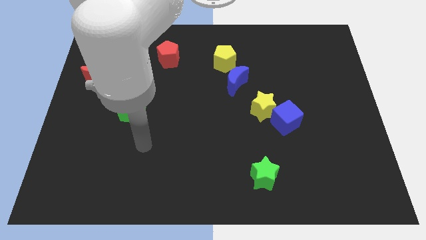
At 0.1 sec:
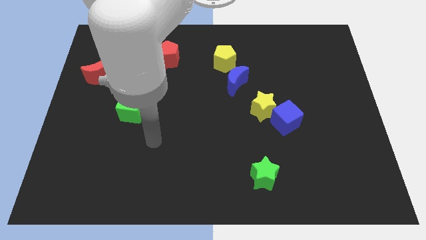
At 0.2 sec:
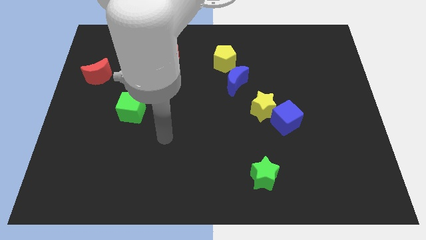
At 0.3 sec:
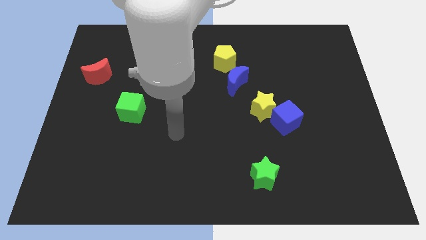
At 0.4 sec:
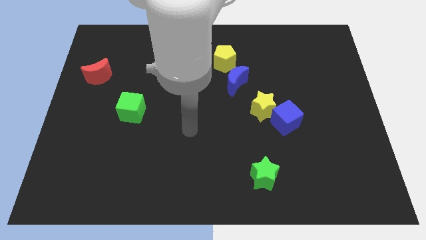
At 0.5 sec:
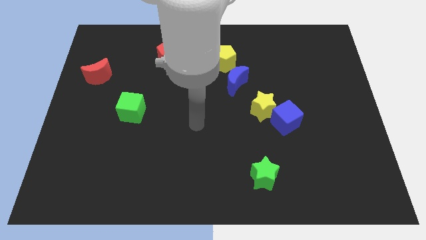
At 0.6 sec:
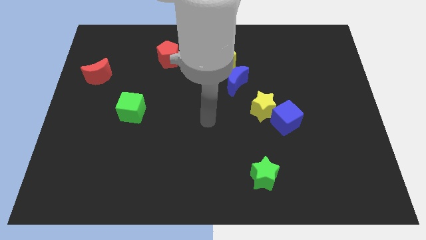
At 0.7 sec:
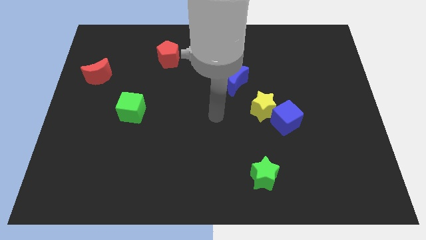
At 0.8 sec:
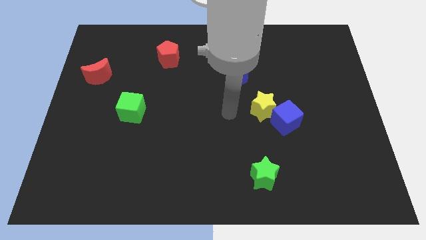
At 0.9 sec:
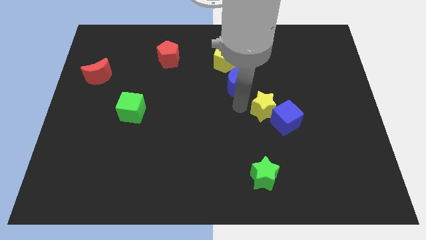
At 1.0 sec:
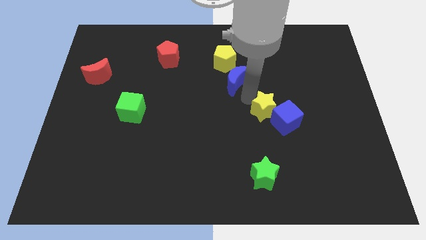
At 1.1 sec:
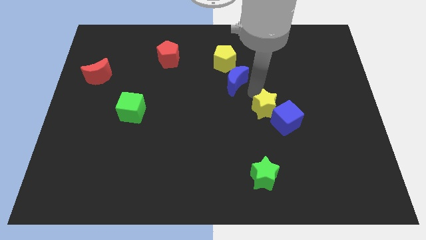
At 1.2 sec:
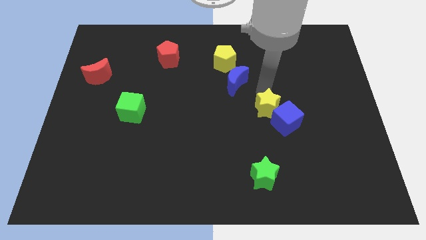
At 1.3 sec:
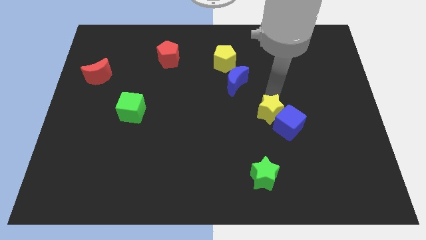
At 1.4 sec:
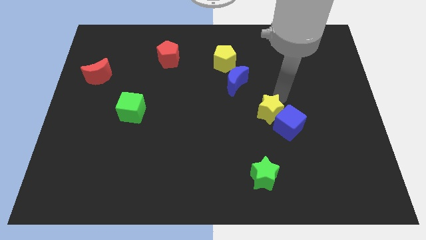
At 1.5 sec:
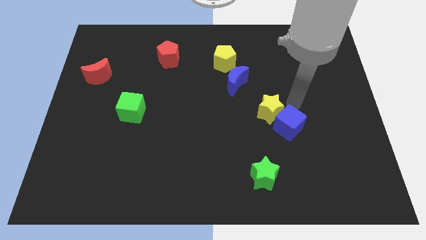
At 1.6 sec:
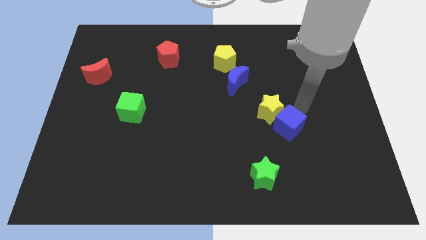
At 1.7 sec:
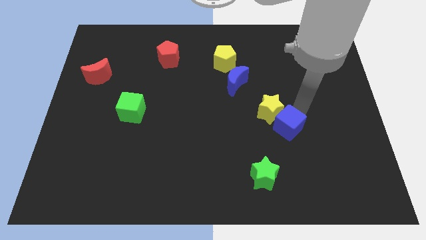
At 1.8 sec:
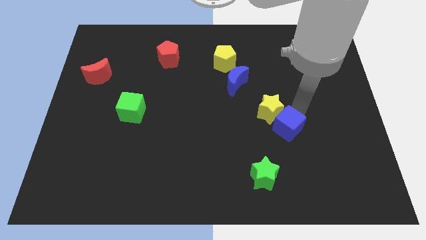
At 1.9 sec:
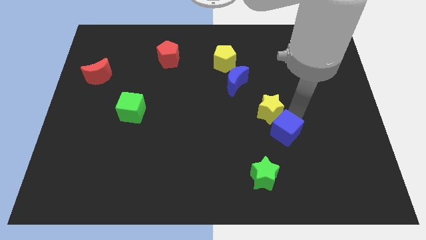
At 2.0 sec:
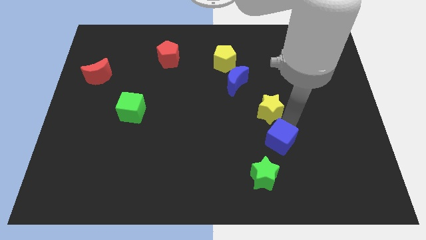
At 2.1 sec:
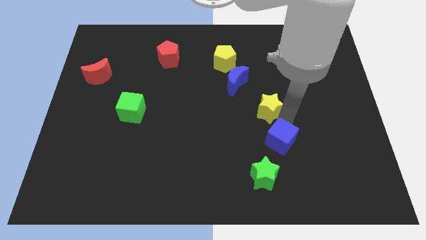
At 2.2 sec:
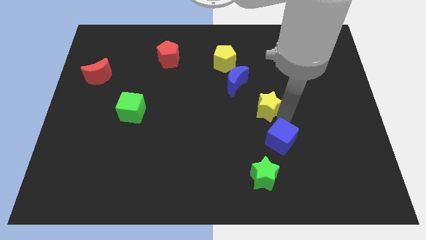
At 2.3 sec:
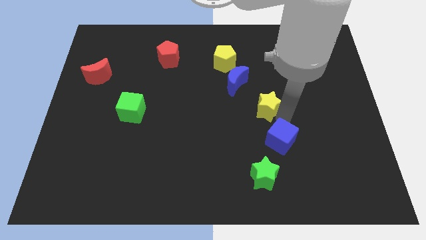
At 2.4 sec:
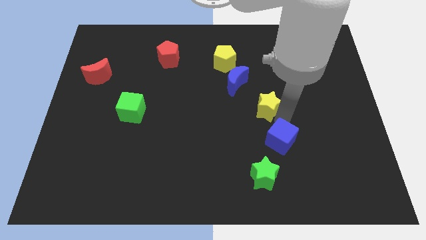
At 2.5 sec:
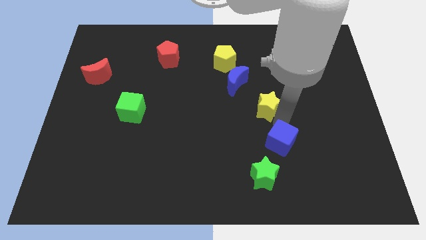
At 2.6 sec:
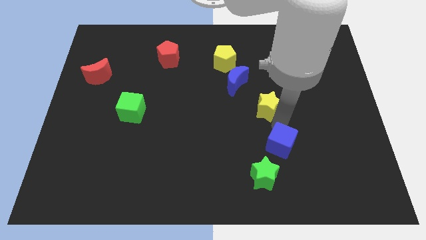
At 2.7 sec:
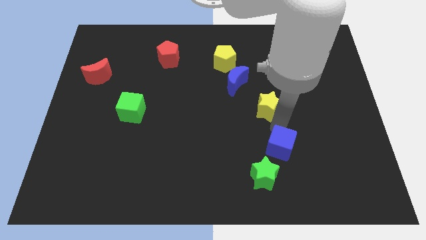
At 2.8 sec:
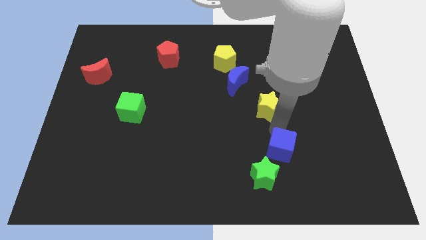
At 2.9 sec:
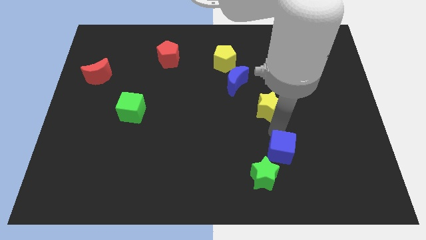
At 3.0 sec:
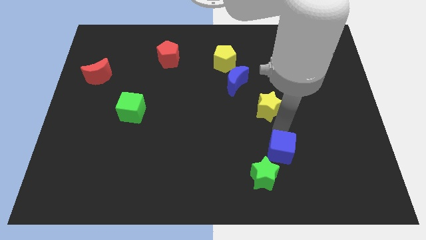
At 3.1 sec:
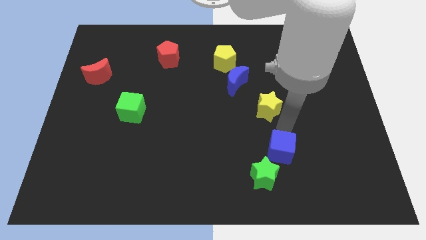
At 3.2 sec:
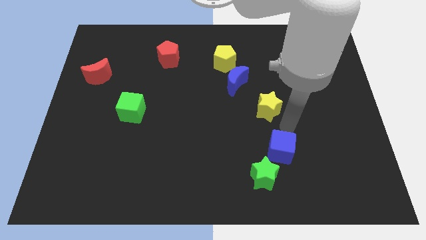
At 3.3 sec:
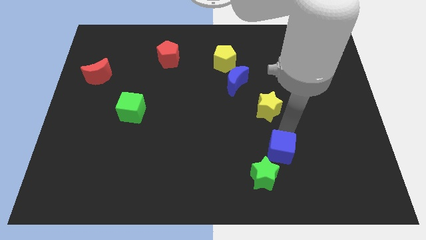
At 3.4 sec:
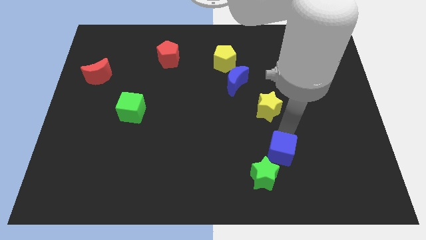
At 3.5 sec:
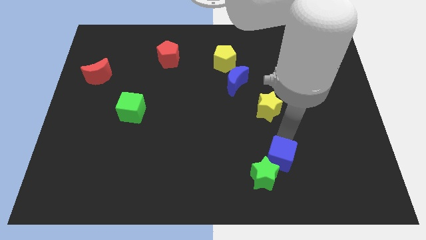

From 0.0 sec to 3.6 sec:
slide the blue cube next to the green star

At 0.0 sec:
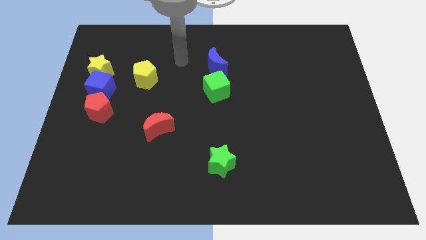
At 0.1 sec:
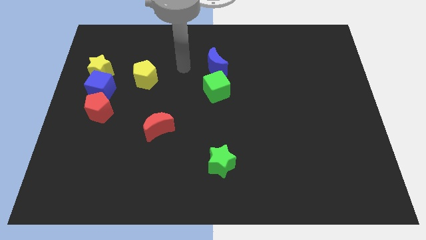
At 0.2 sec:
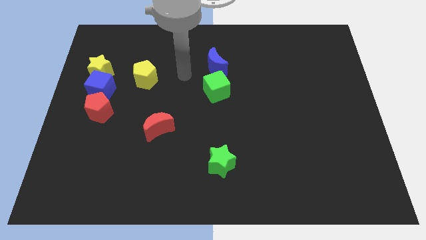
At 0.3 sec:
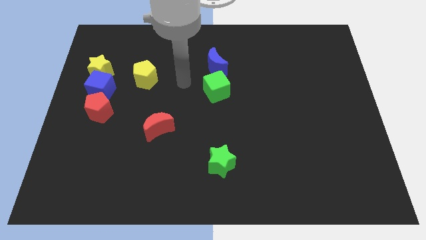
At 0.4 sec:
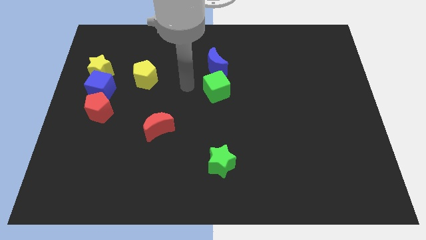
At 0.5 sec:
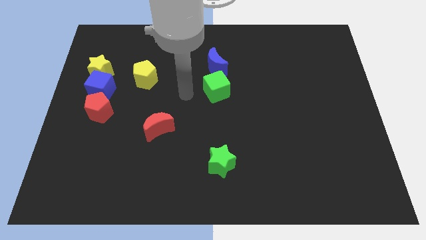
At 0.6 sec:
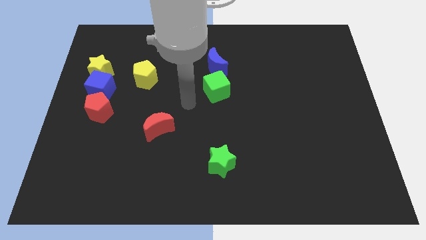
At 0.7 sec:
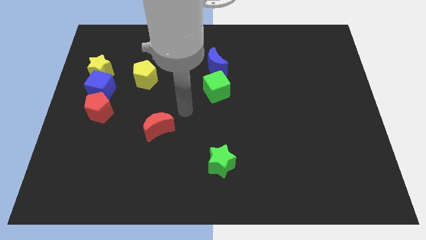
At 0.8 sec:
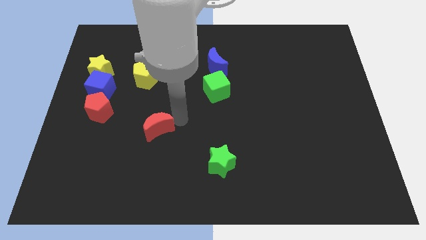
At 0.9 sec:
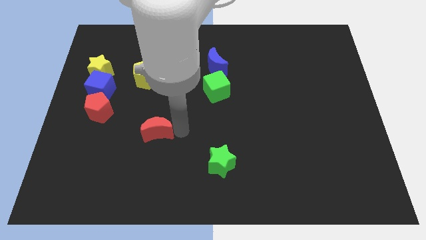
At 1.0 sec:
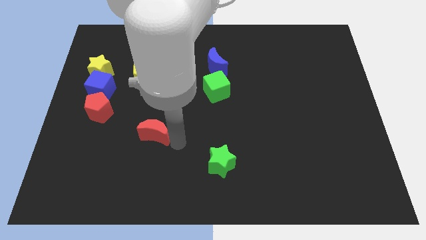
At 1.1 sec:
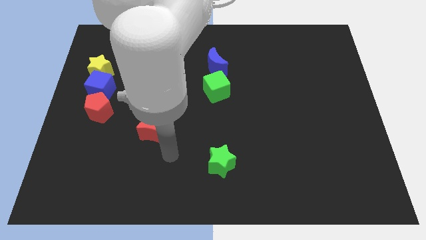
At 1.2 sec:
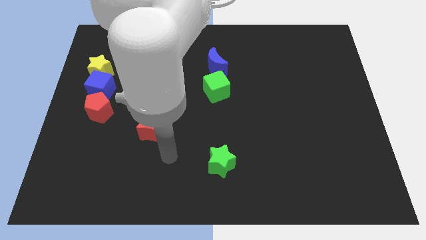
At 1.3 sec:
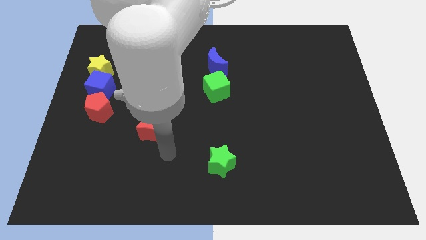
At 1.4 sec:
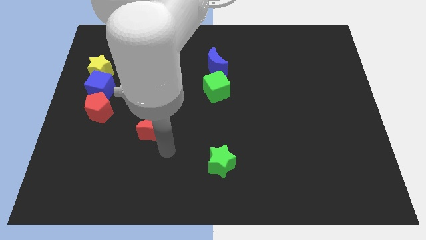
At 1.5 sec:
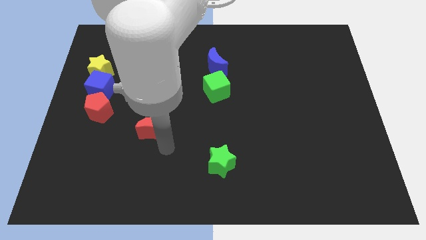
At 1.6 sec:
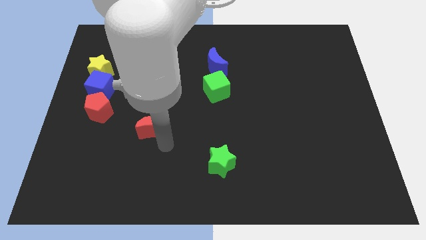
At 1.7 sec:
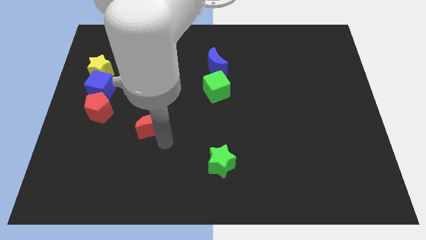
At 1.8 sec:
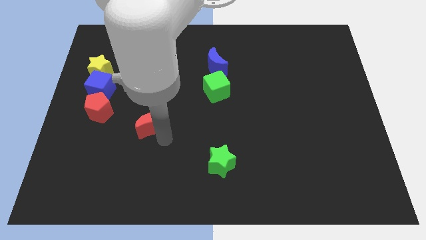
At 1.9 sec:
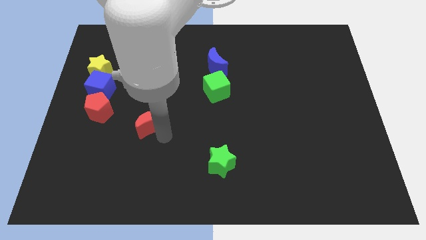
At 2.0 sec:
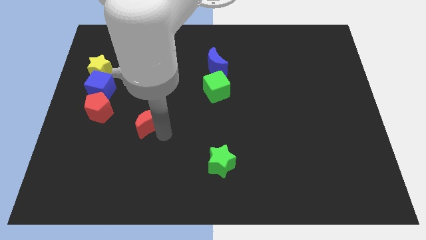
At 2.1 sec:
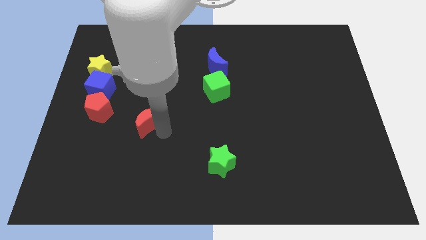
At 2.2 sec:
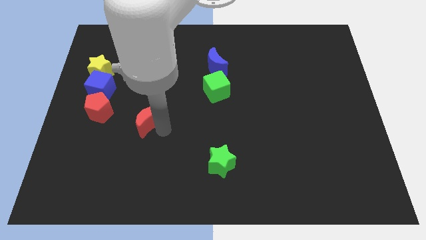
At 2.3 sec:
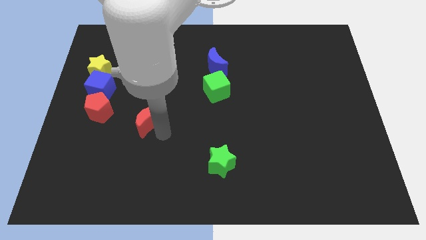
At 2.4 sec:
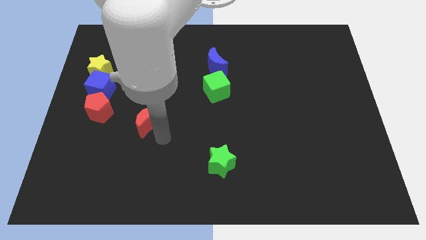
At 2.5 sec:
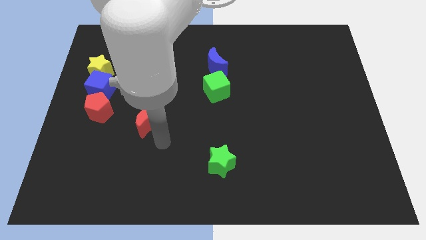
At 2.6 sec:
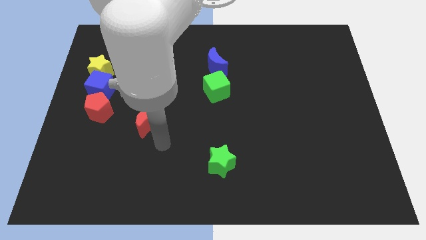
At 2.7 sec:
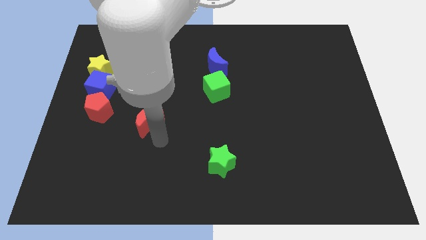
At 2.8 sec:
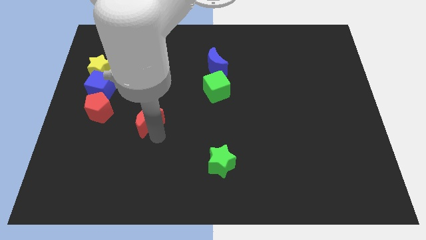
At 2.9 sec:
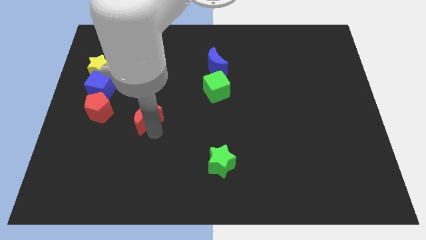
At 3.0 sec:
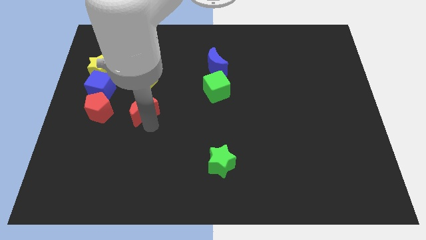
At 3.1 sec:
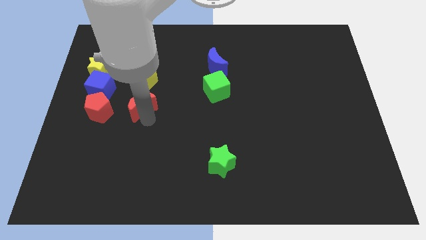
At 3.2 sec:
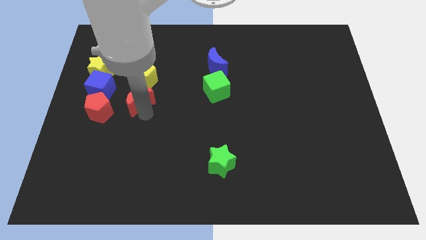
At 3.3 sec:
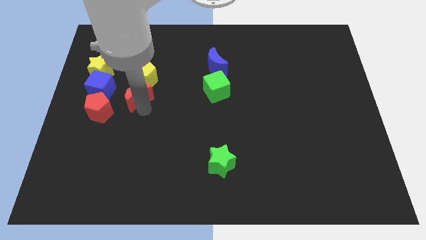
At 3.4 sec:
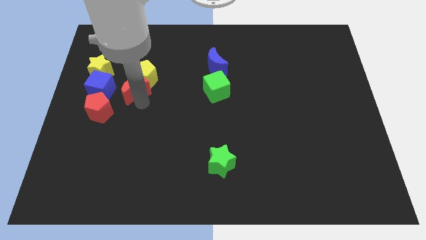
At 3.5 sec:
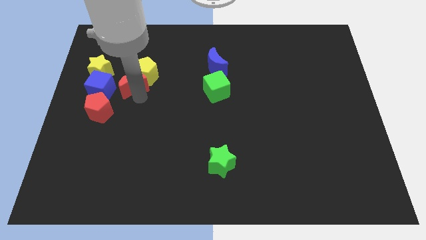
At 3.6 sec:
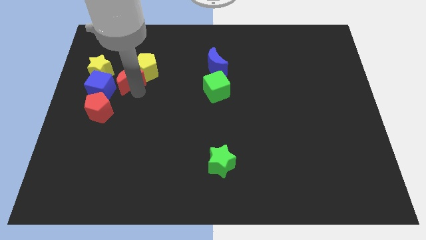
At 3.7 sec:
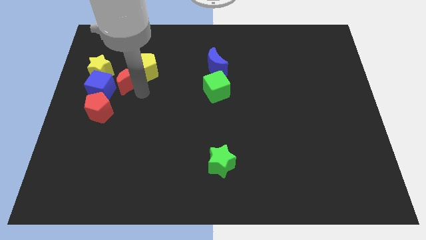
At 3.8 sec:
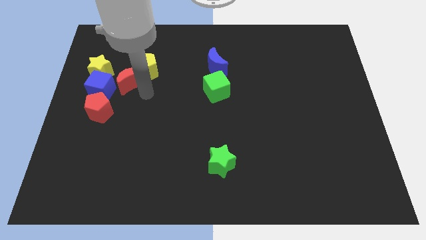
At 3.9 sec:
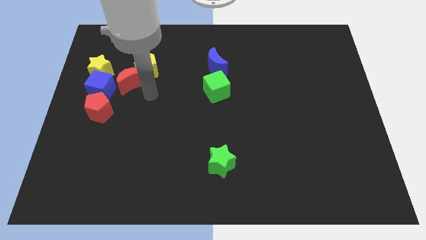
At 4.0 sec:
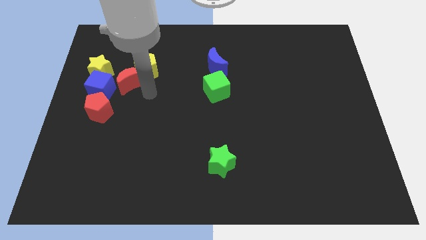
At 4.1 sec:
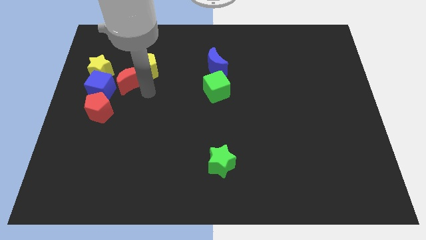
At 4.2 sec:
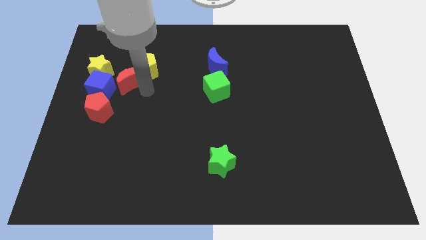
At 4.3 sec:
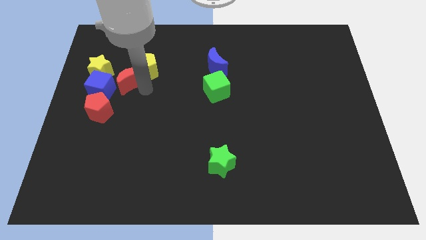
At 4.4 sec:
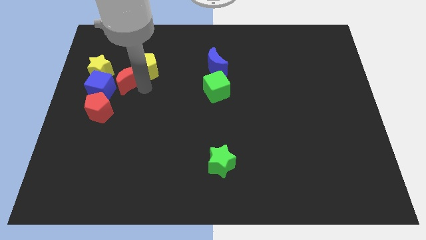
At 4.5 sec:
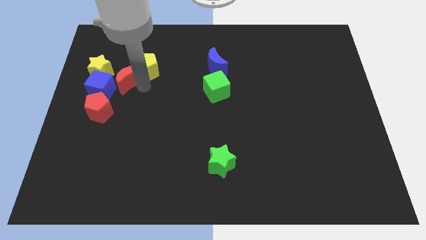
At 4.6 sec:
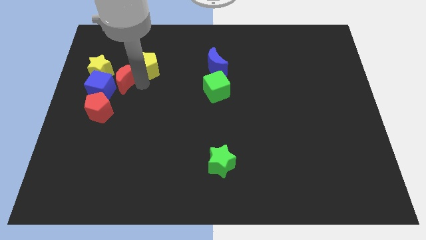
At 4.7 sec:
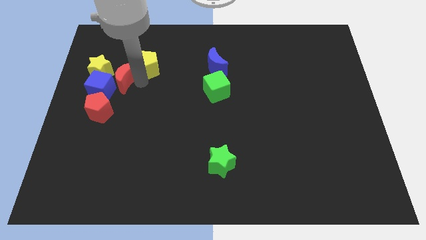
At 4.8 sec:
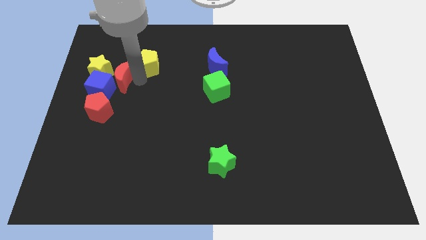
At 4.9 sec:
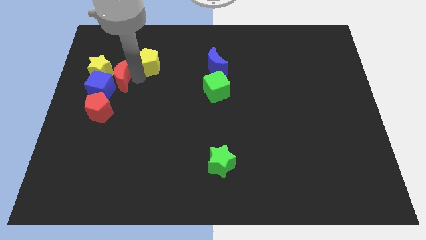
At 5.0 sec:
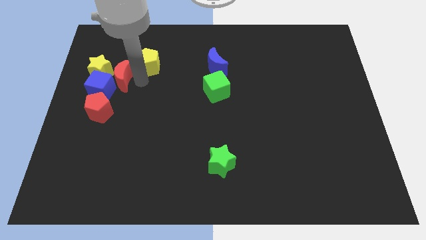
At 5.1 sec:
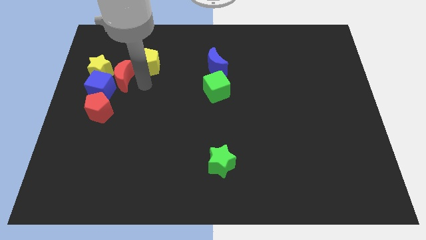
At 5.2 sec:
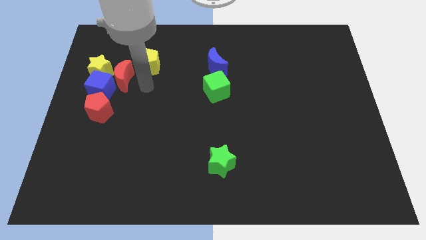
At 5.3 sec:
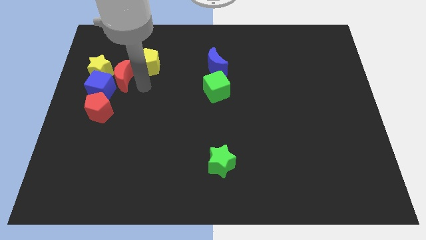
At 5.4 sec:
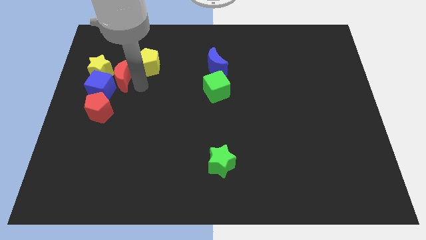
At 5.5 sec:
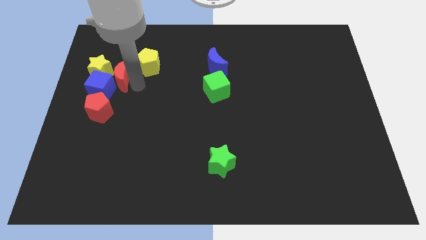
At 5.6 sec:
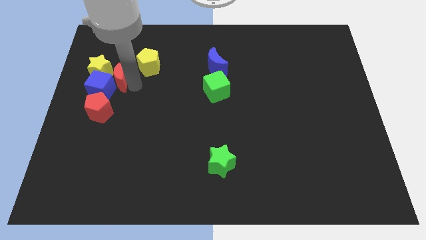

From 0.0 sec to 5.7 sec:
push the red moon towards the yellow star
